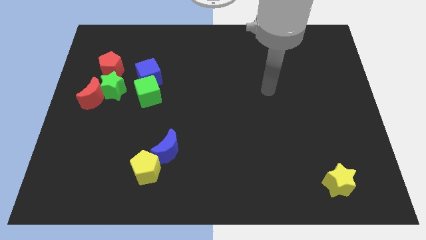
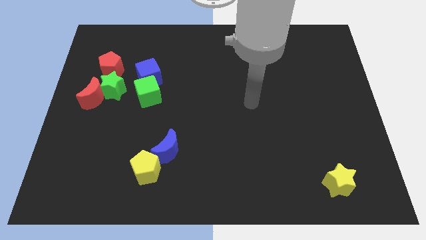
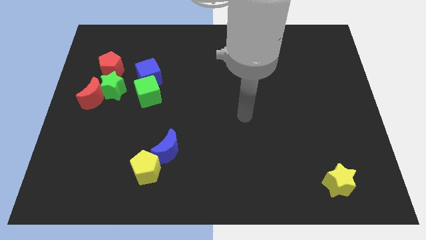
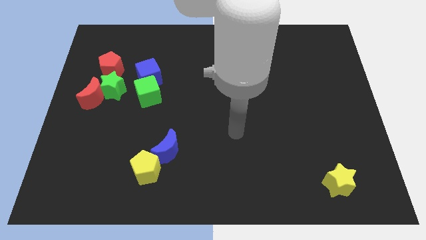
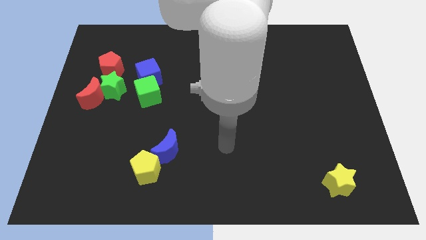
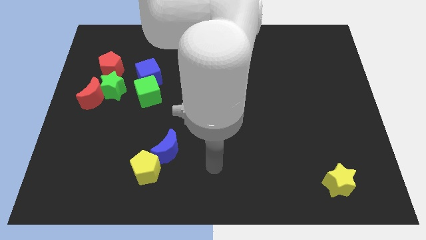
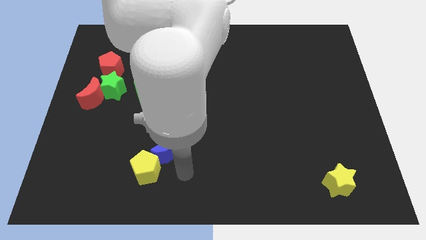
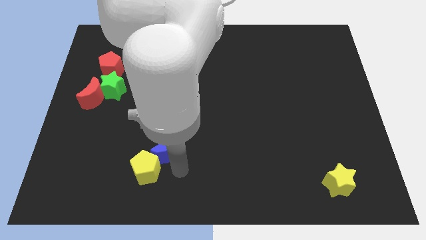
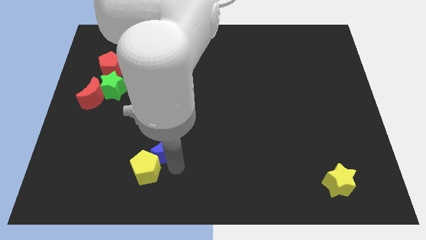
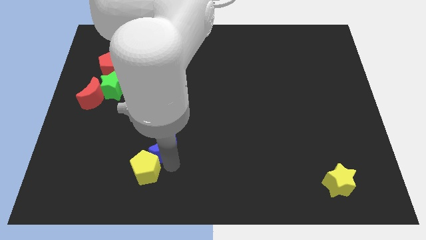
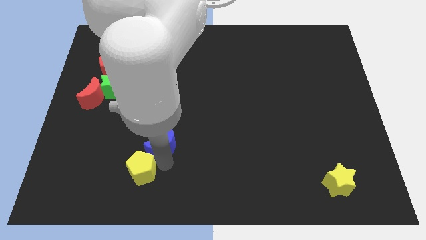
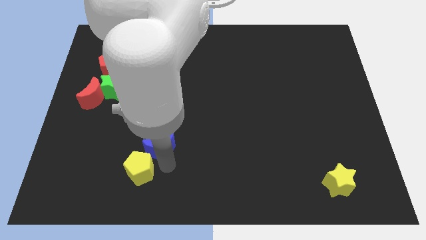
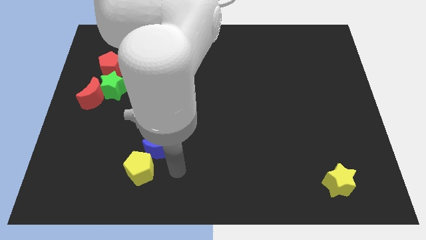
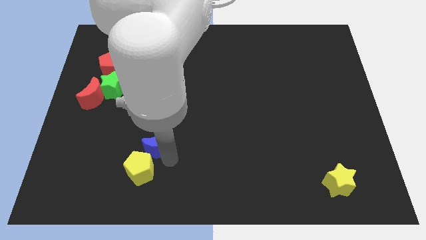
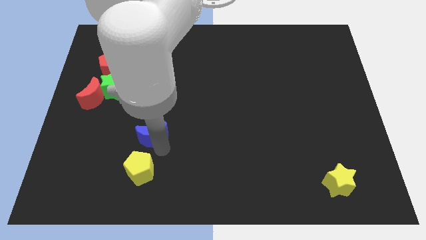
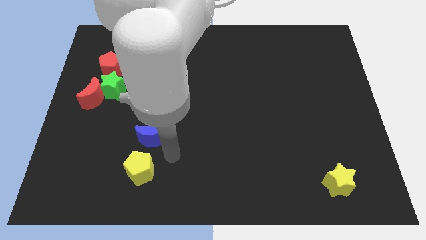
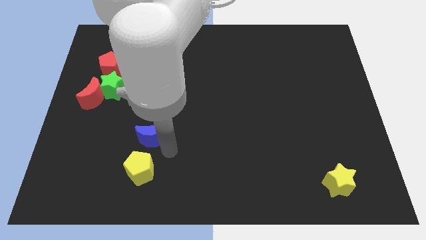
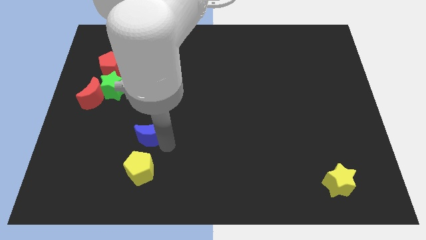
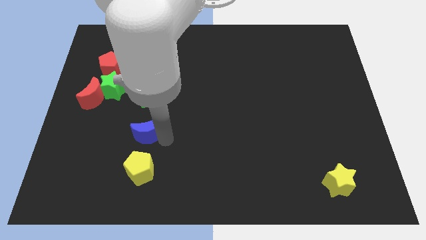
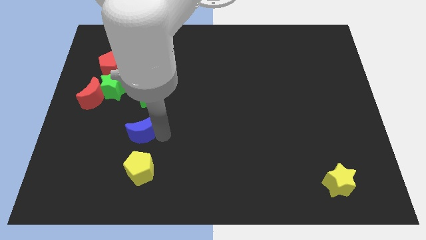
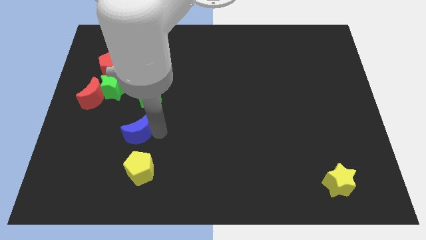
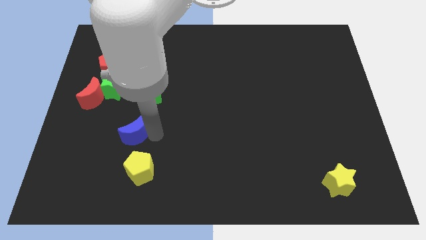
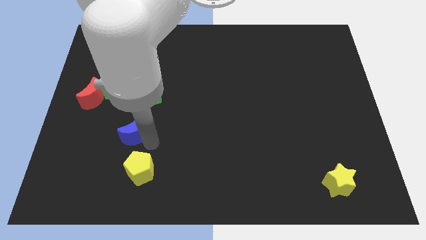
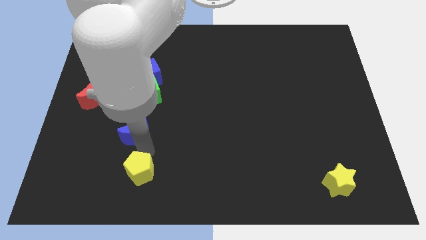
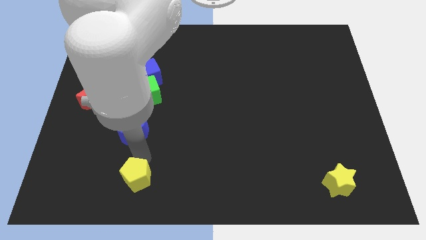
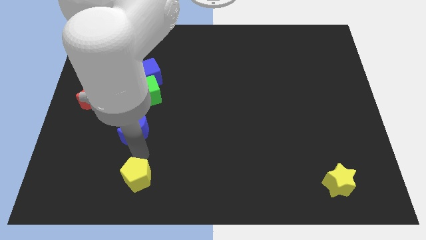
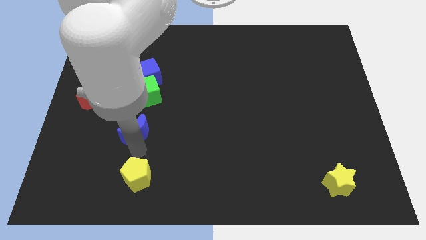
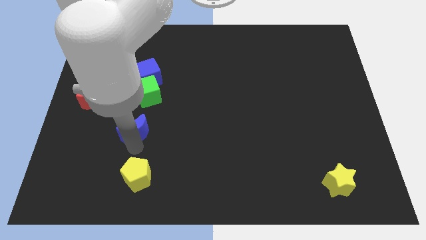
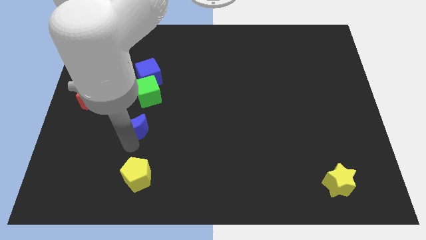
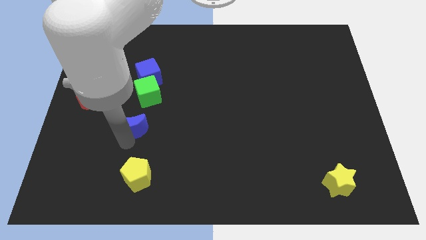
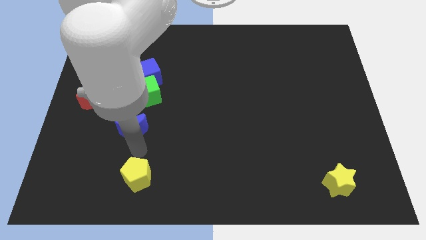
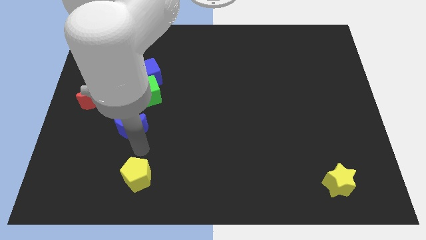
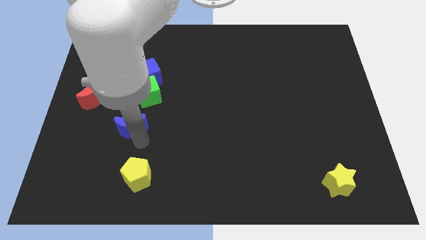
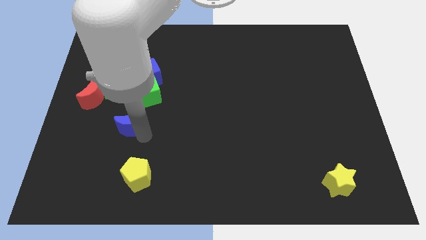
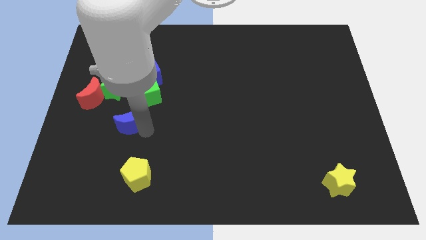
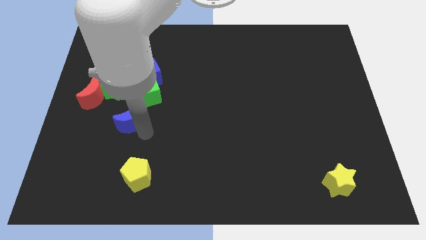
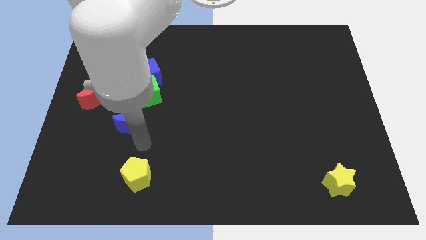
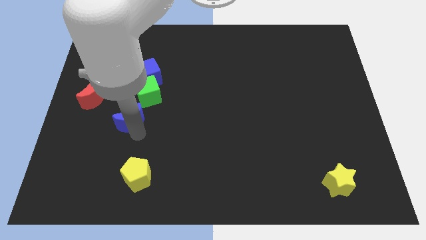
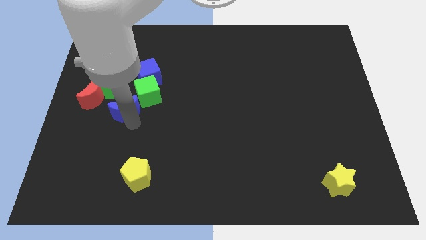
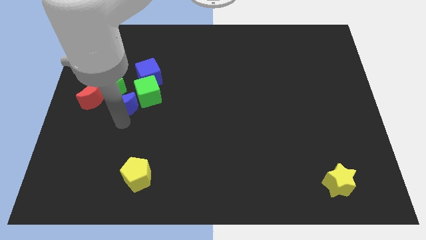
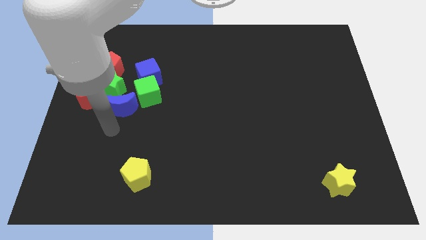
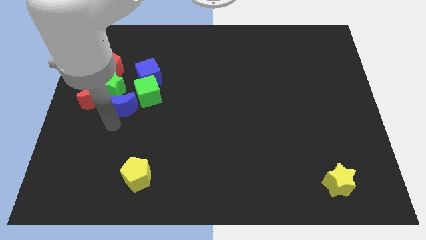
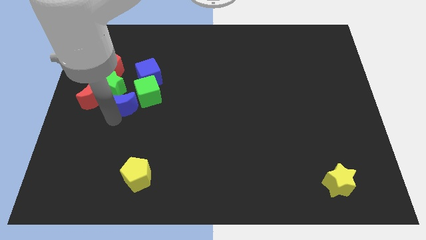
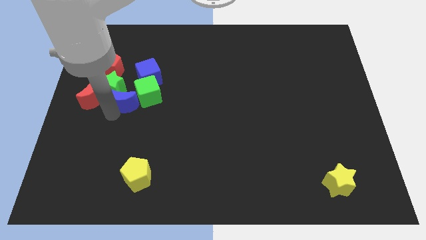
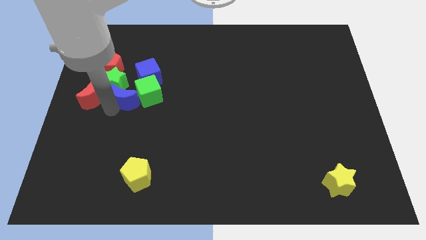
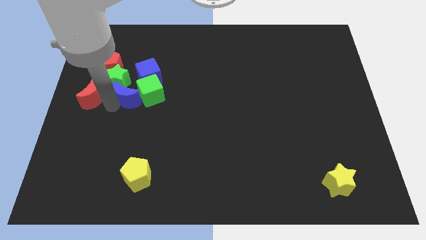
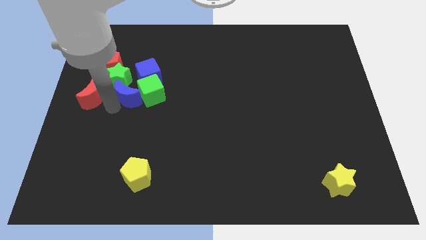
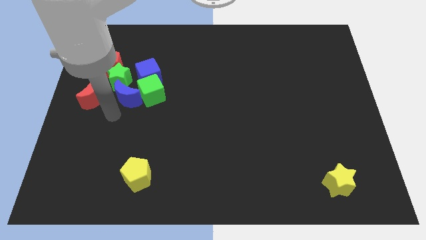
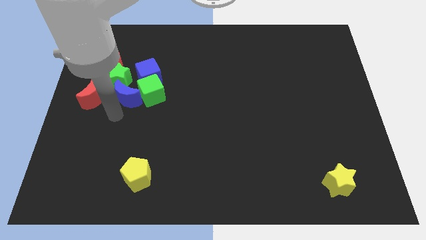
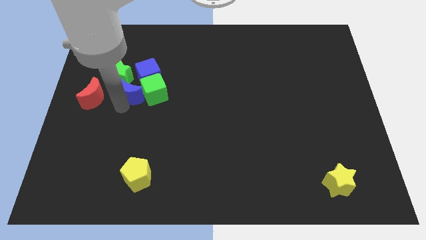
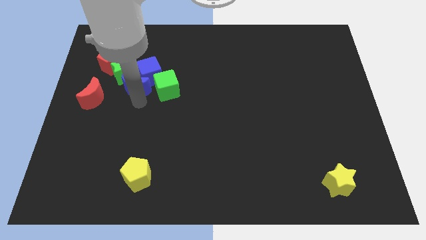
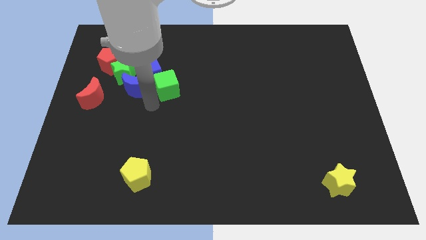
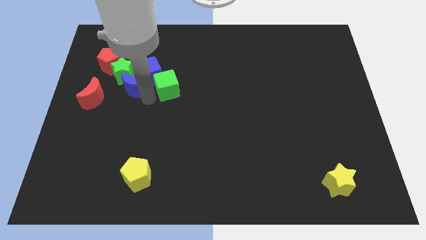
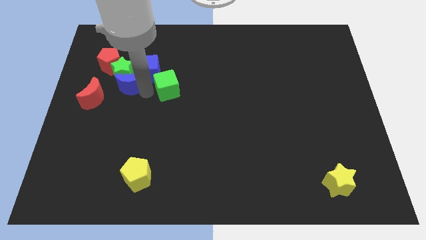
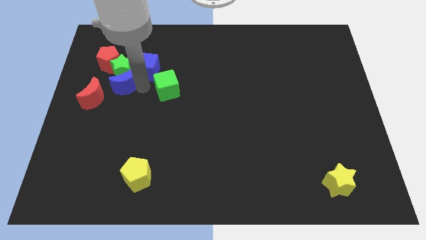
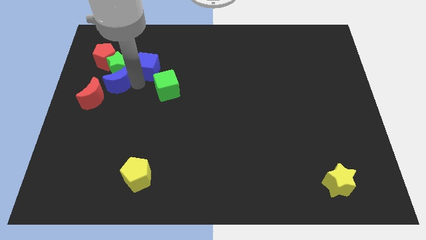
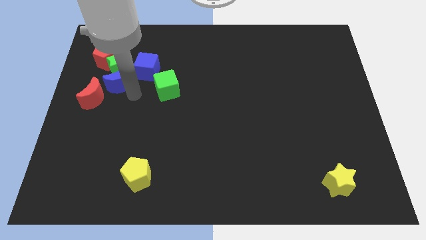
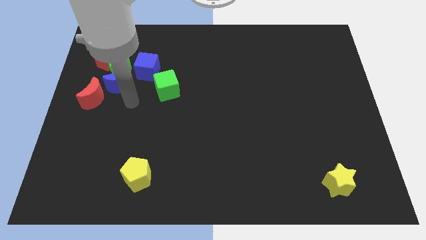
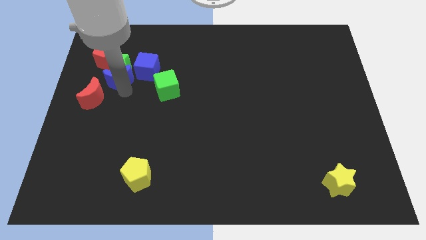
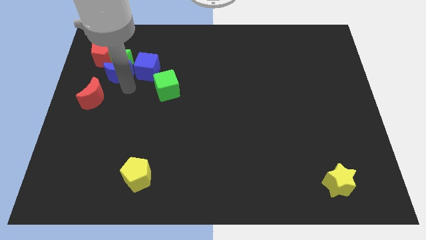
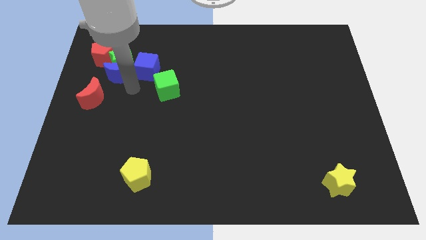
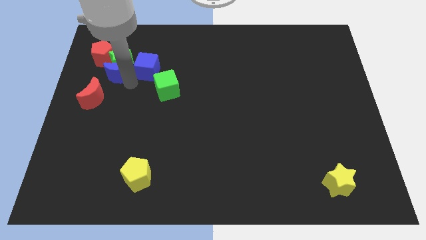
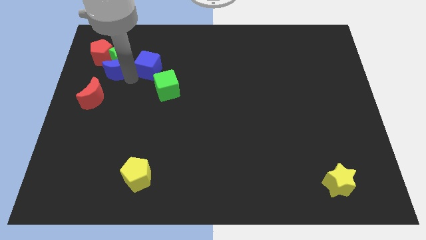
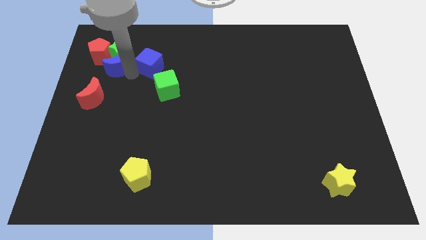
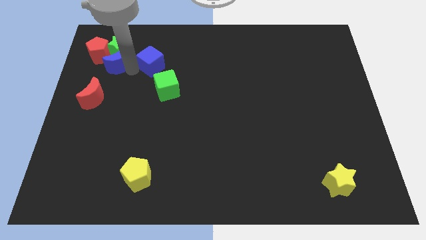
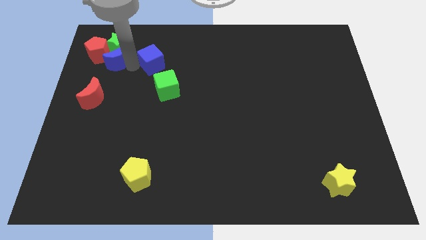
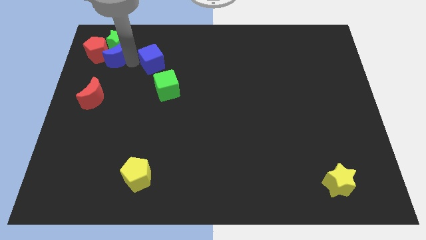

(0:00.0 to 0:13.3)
move the blue moon towards the red pentagon
